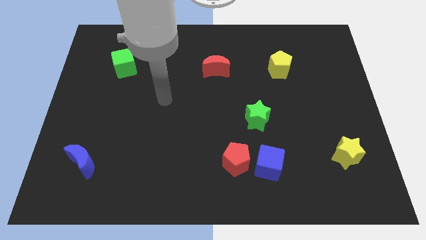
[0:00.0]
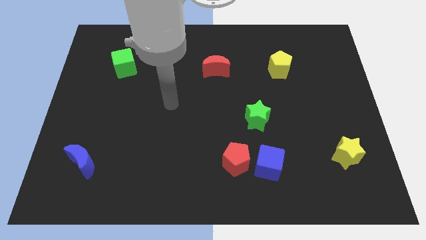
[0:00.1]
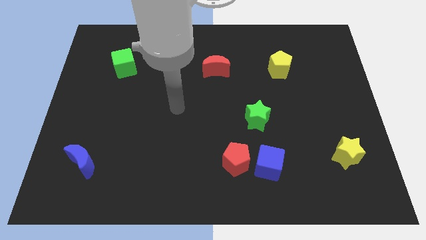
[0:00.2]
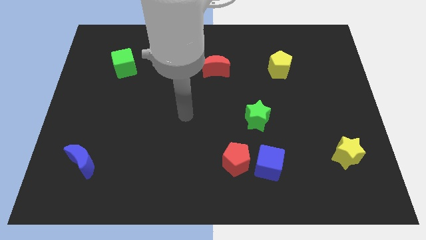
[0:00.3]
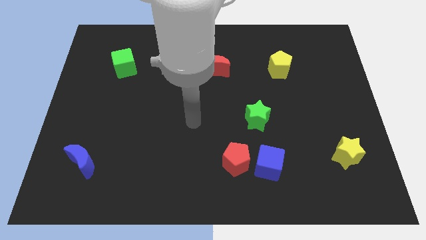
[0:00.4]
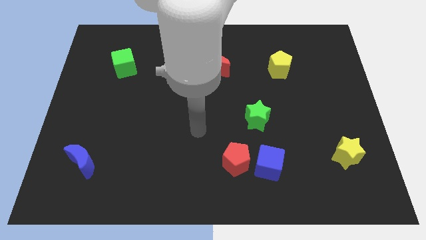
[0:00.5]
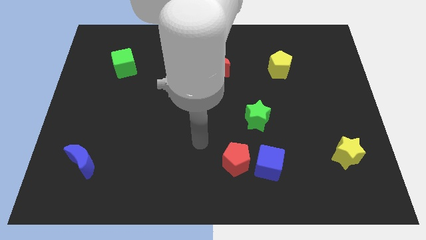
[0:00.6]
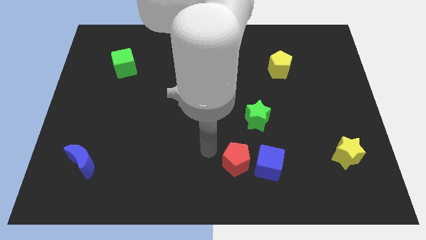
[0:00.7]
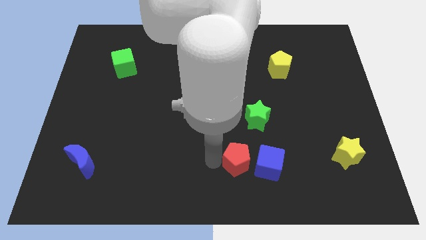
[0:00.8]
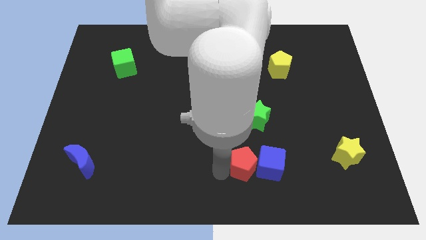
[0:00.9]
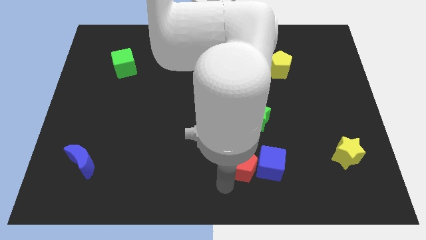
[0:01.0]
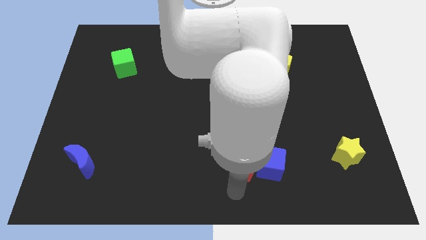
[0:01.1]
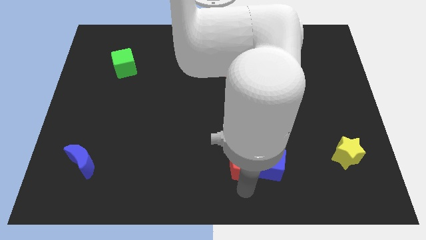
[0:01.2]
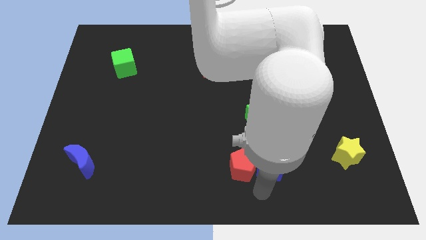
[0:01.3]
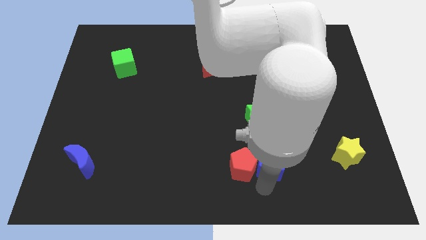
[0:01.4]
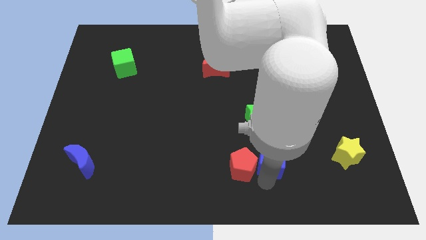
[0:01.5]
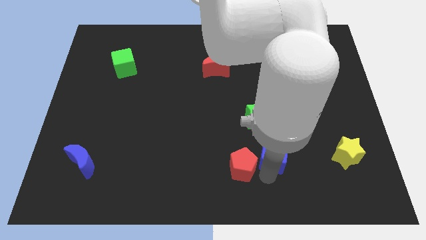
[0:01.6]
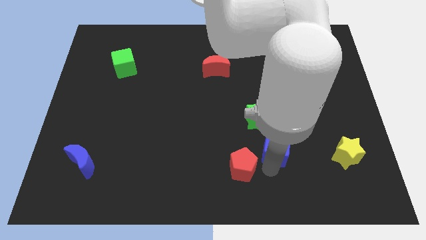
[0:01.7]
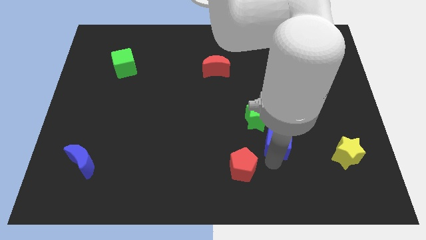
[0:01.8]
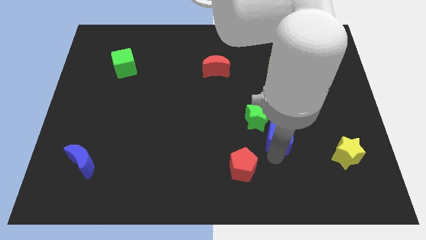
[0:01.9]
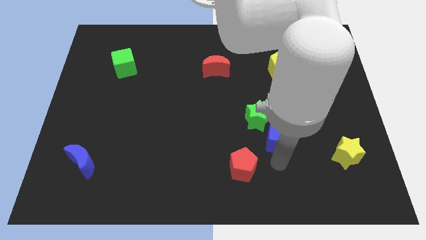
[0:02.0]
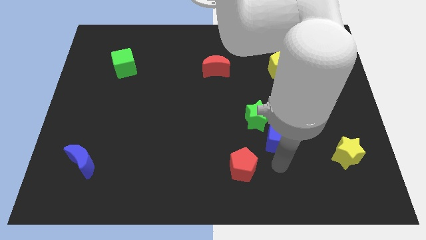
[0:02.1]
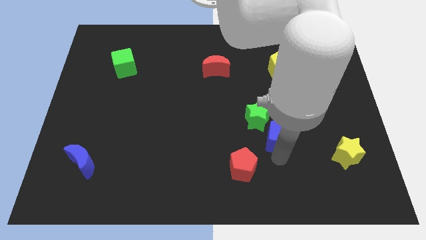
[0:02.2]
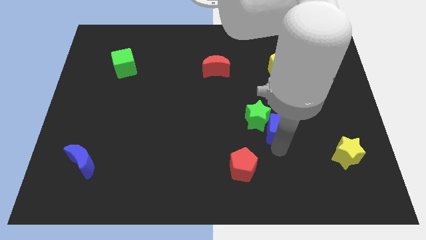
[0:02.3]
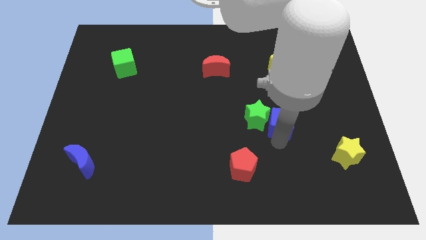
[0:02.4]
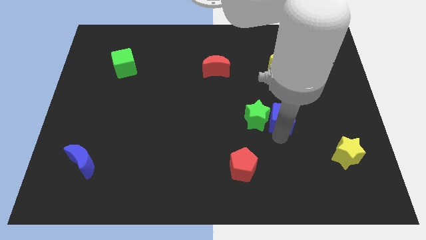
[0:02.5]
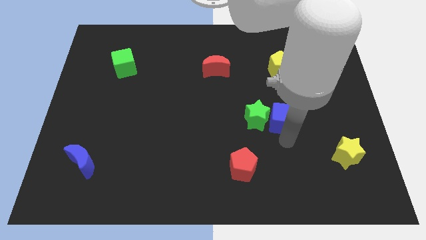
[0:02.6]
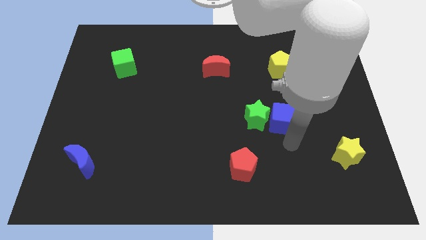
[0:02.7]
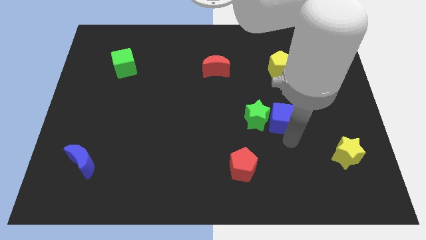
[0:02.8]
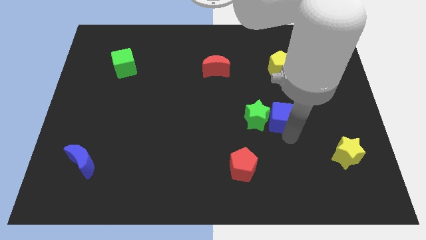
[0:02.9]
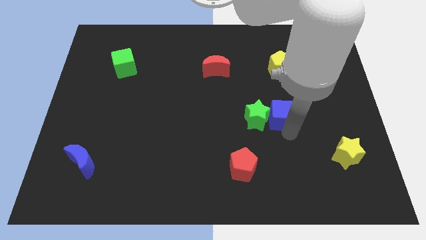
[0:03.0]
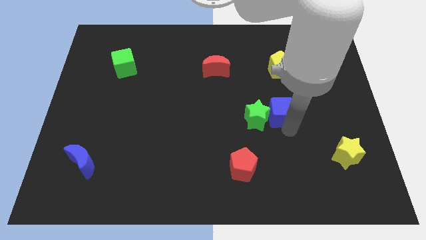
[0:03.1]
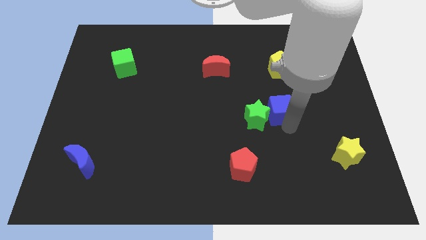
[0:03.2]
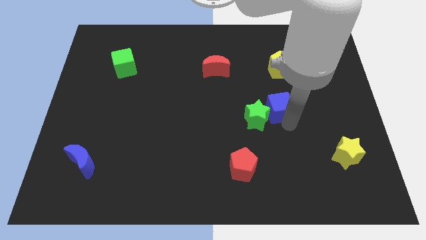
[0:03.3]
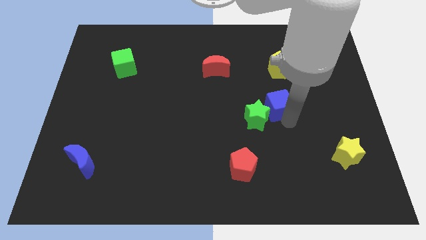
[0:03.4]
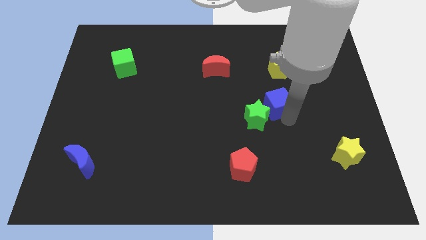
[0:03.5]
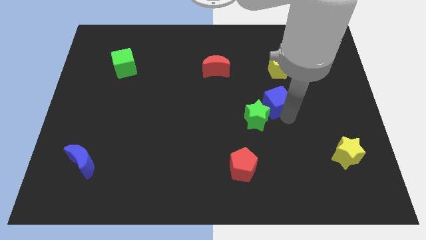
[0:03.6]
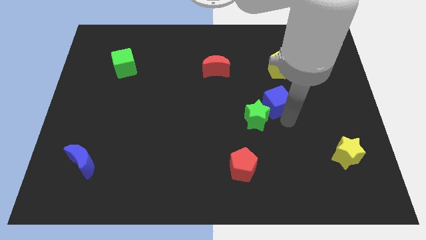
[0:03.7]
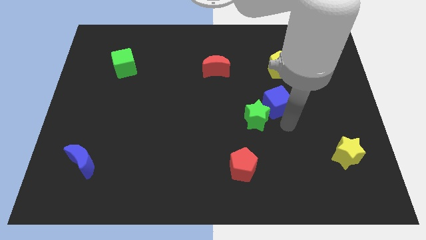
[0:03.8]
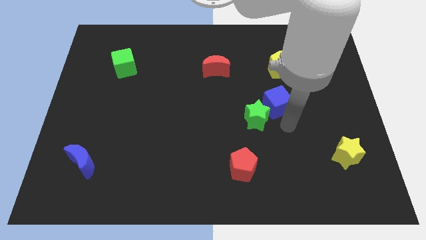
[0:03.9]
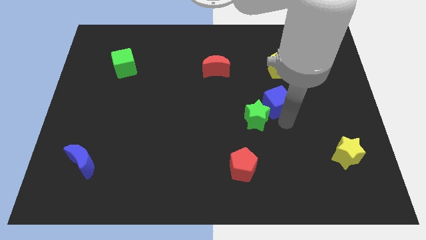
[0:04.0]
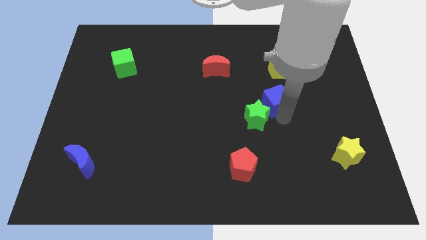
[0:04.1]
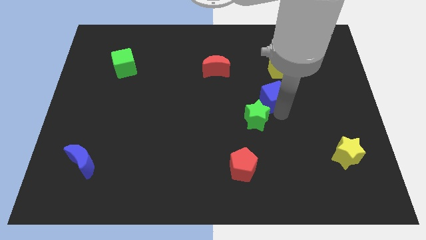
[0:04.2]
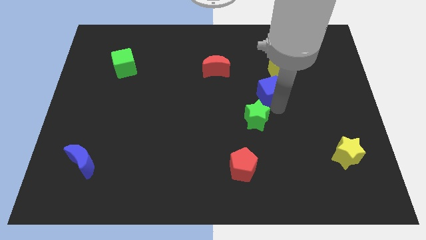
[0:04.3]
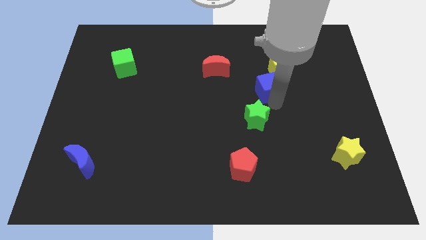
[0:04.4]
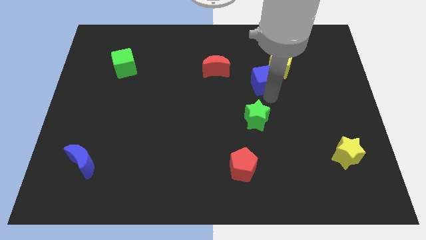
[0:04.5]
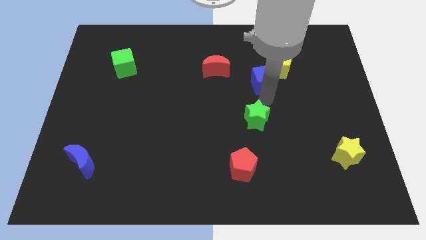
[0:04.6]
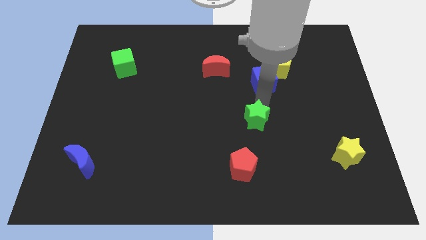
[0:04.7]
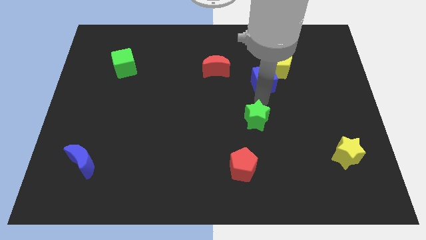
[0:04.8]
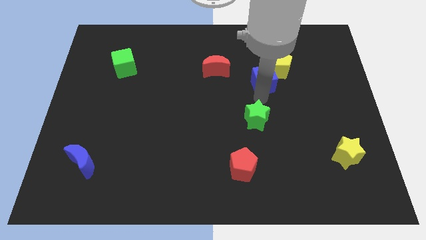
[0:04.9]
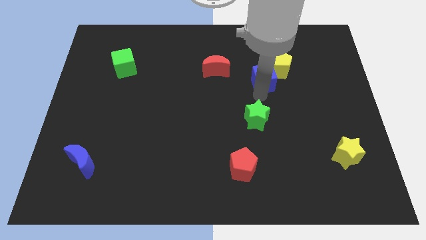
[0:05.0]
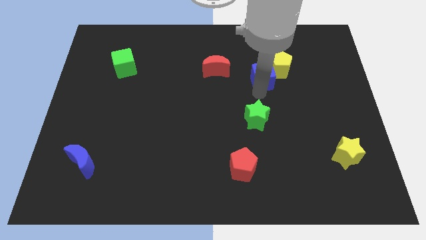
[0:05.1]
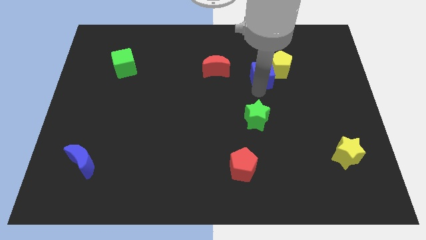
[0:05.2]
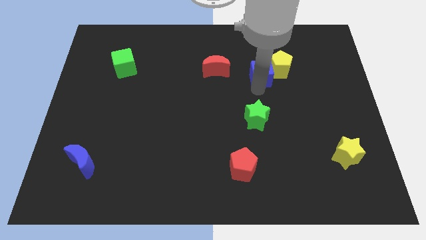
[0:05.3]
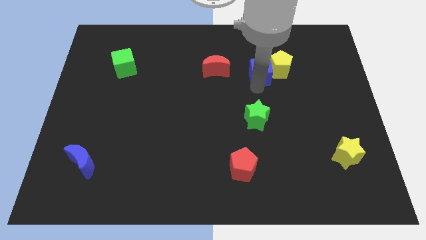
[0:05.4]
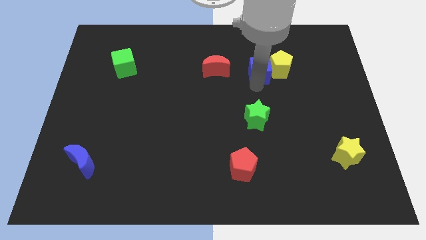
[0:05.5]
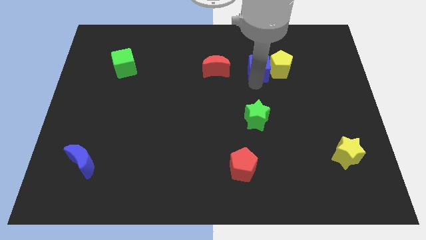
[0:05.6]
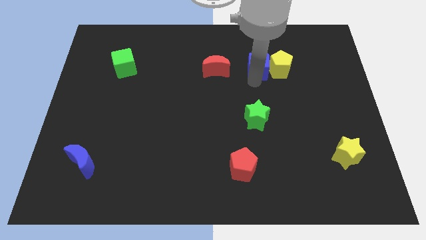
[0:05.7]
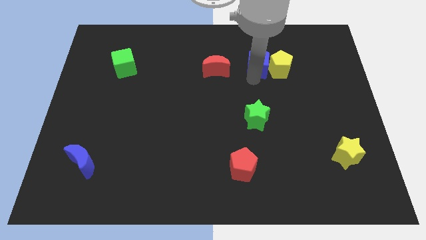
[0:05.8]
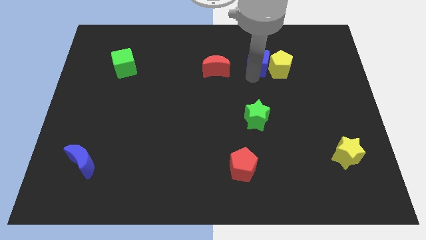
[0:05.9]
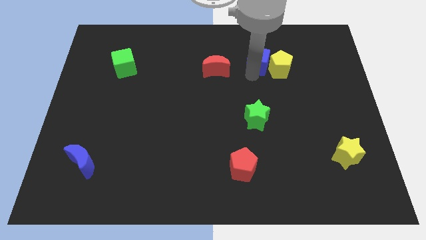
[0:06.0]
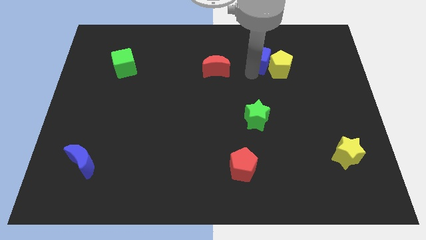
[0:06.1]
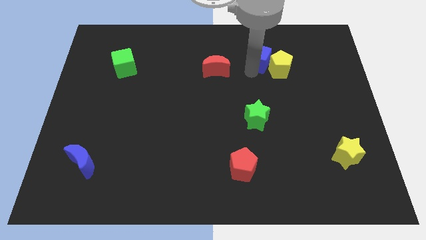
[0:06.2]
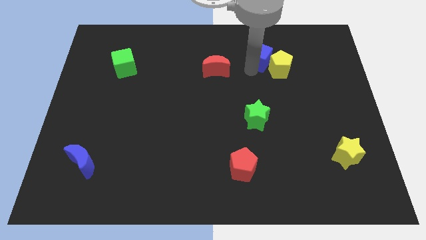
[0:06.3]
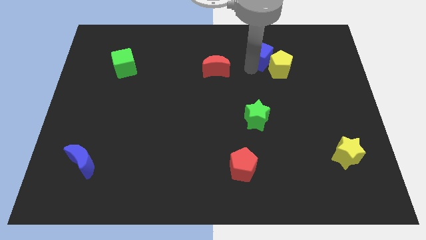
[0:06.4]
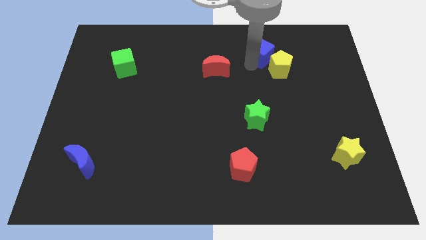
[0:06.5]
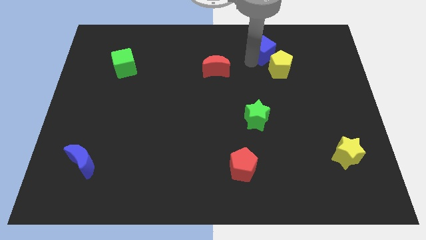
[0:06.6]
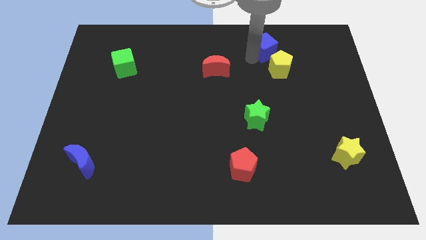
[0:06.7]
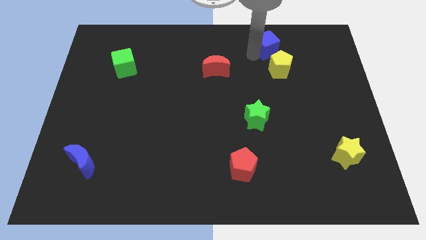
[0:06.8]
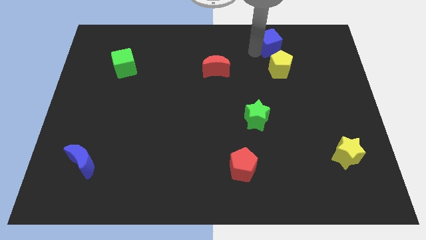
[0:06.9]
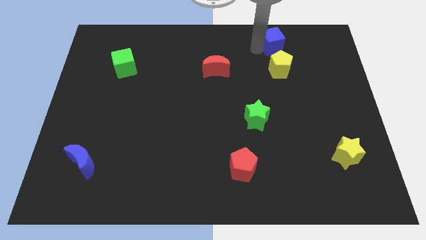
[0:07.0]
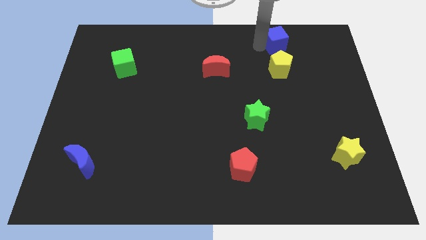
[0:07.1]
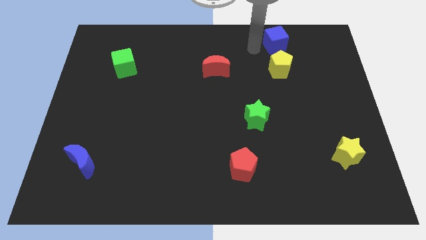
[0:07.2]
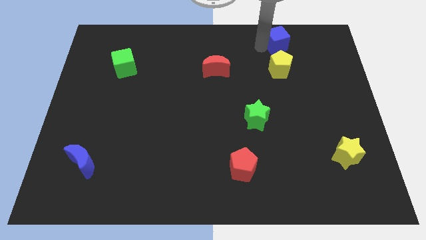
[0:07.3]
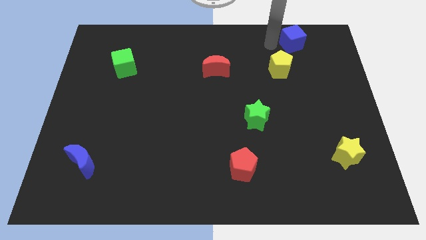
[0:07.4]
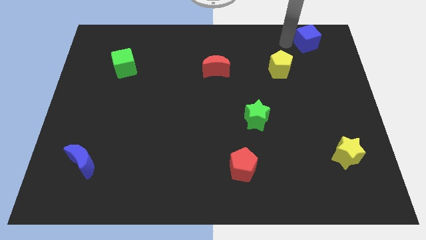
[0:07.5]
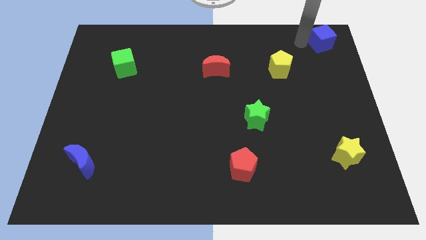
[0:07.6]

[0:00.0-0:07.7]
push the blue cube to the top right of the board
